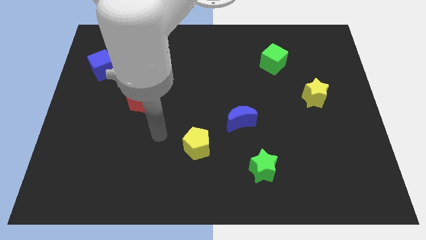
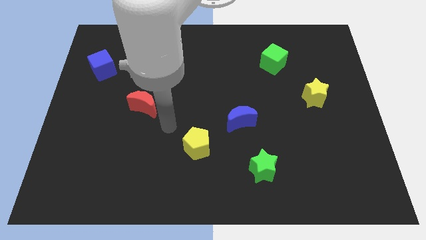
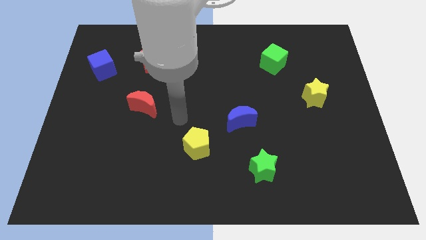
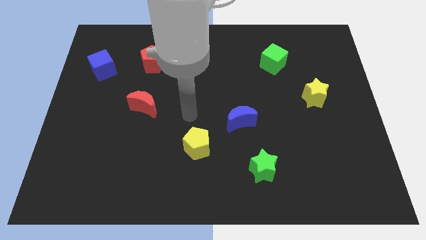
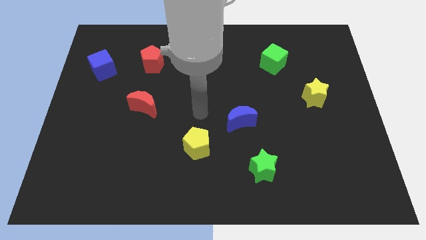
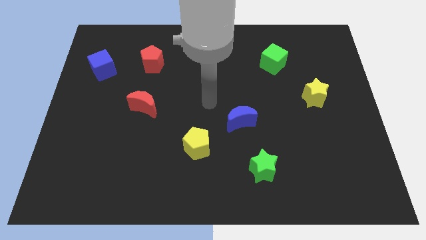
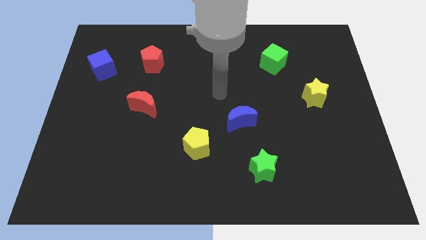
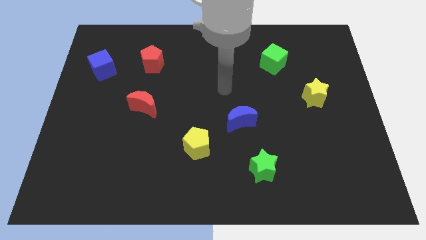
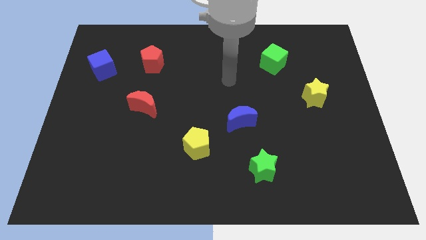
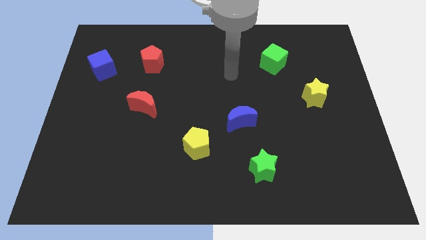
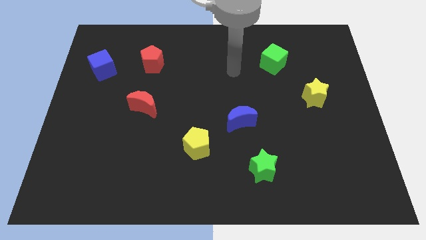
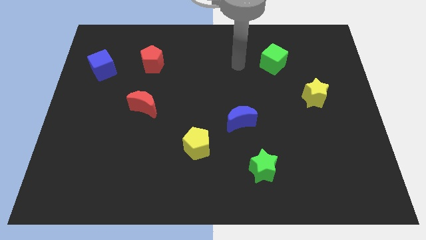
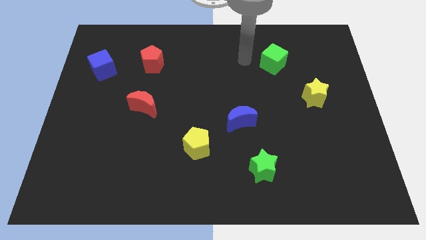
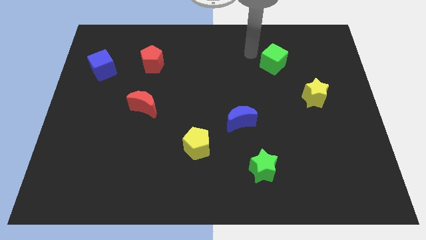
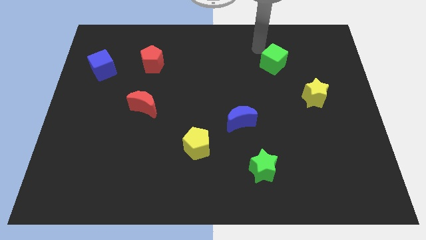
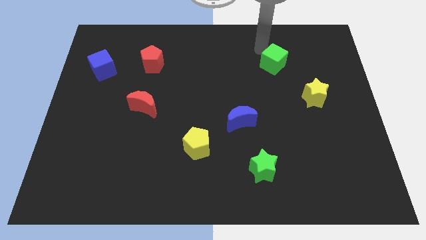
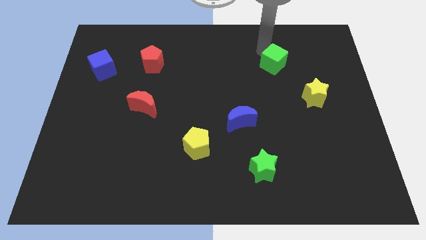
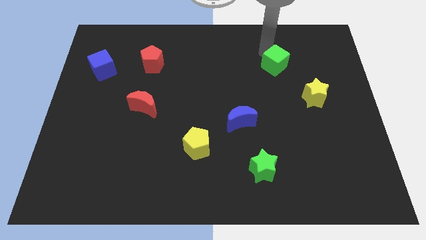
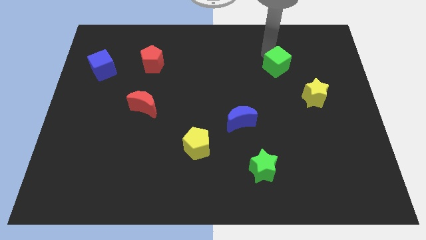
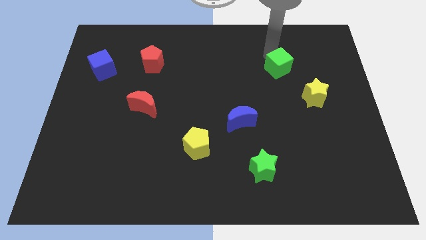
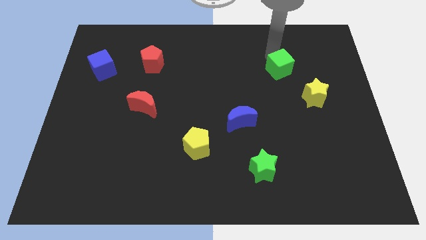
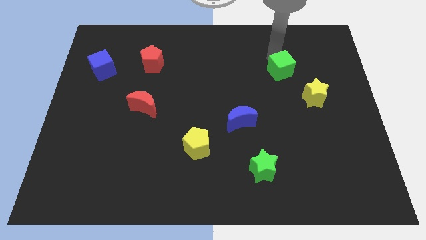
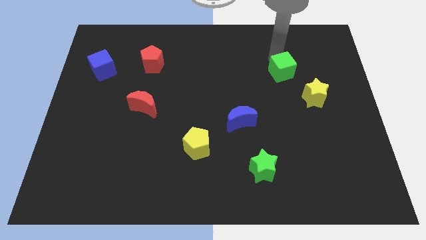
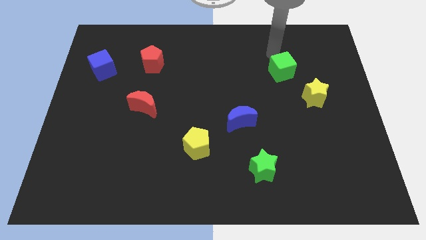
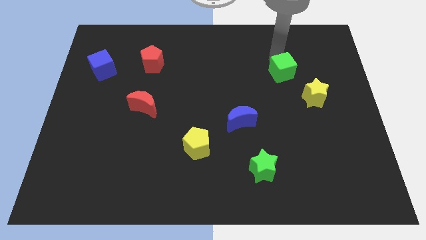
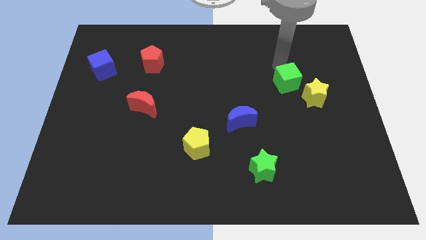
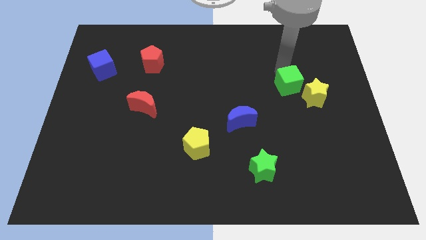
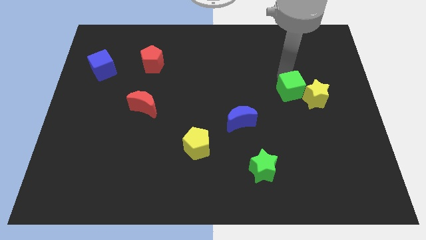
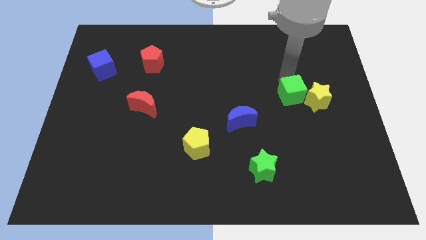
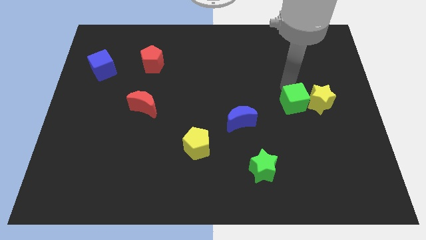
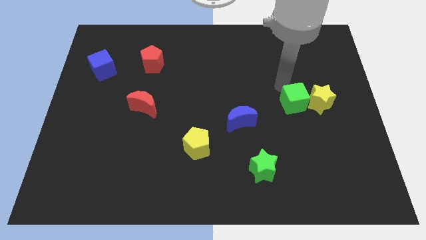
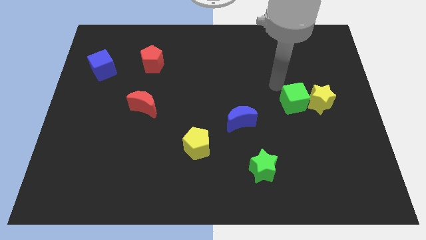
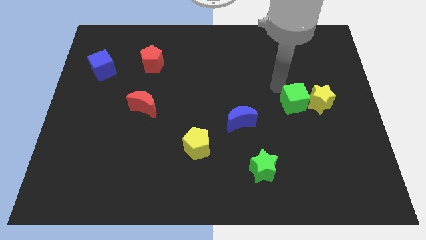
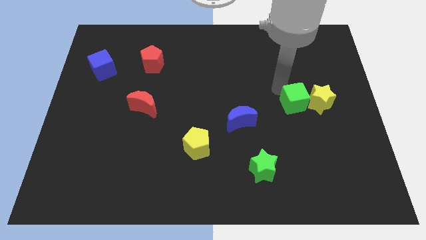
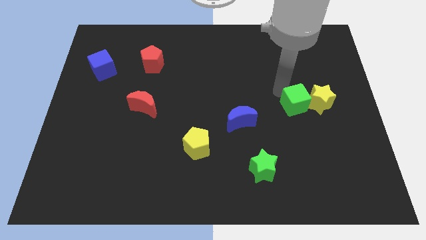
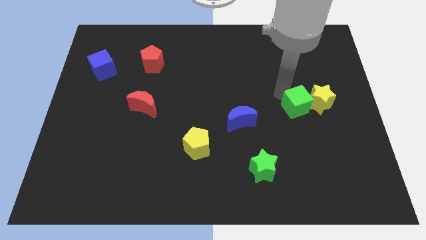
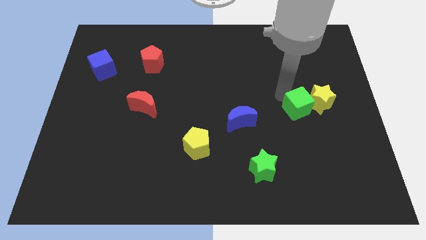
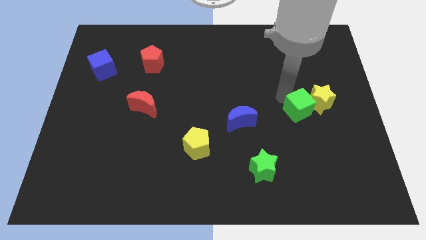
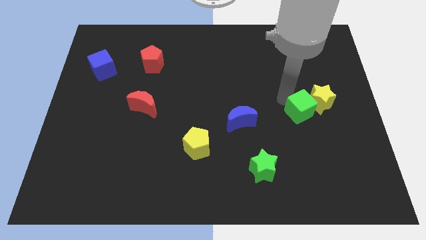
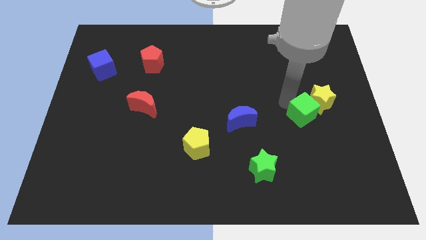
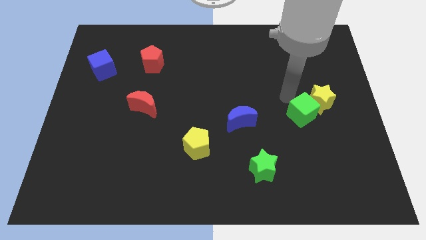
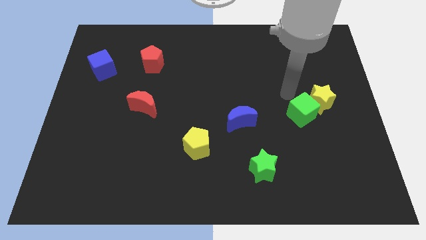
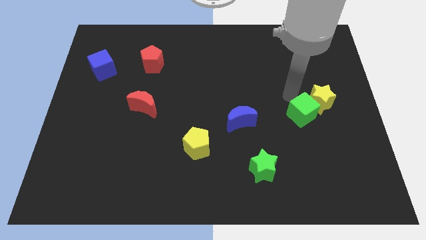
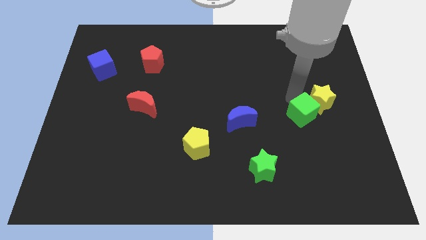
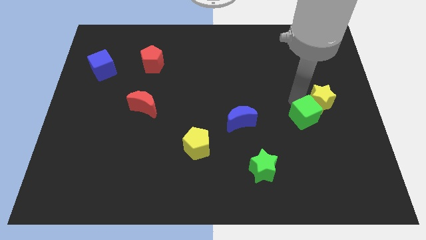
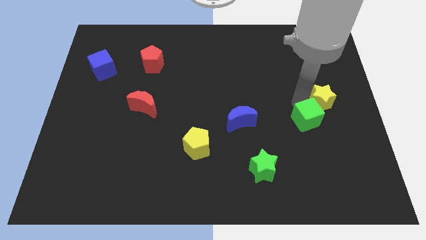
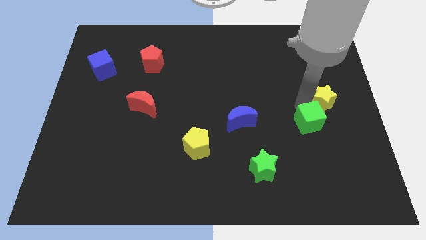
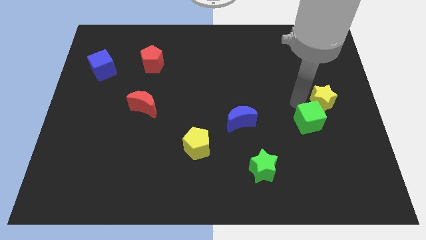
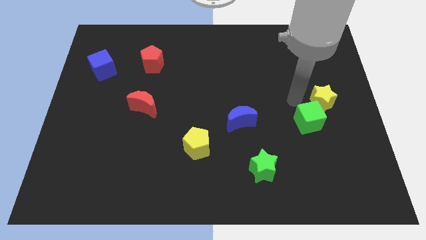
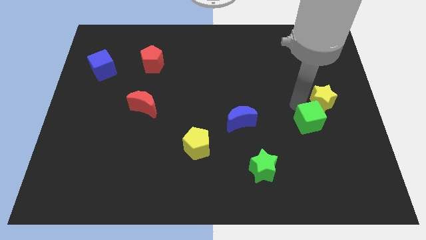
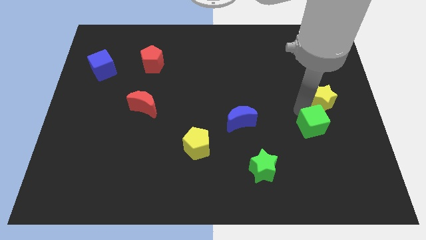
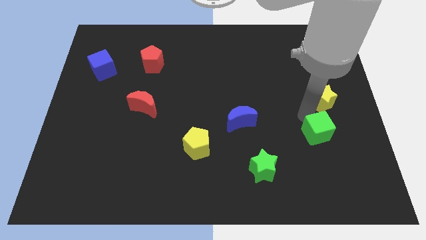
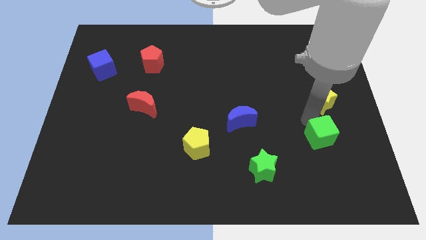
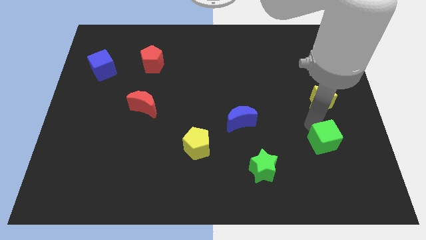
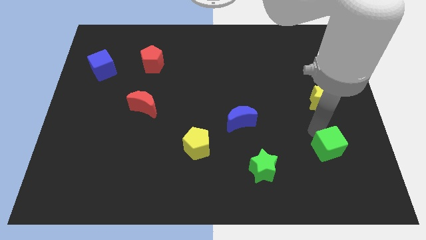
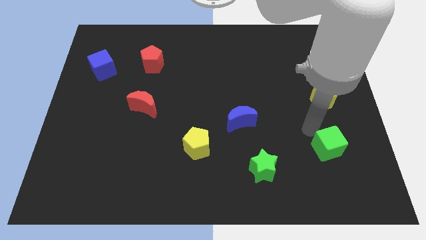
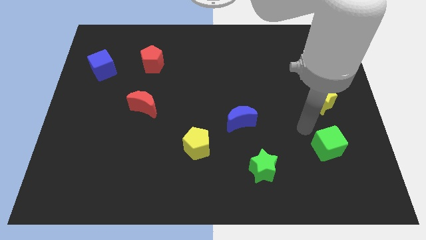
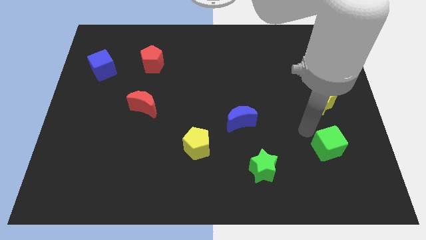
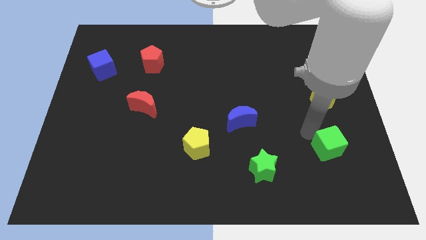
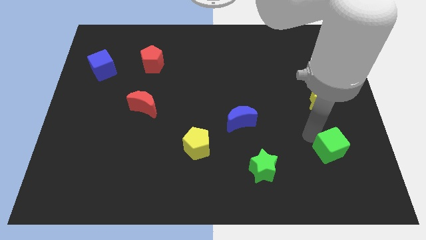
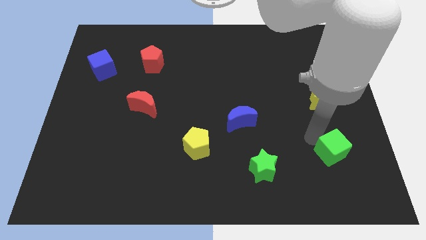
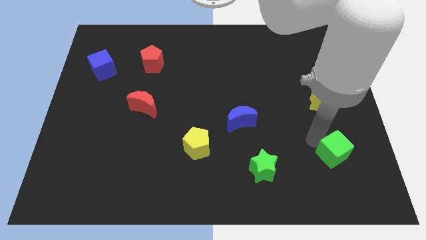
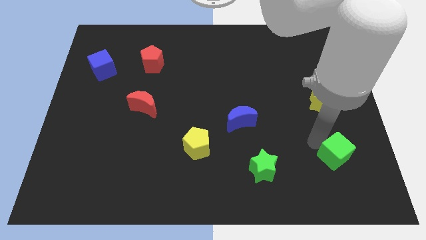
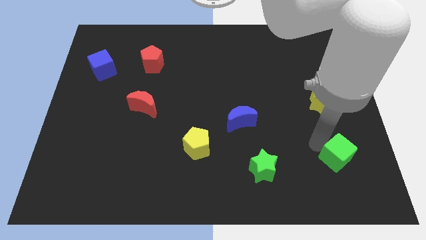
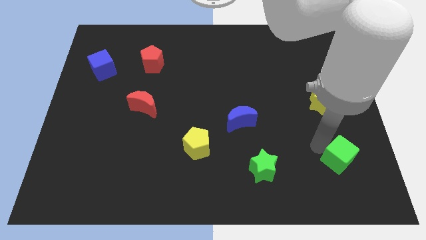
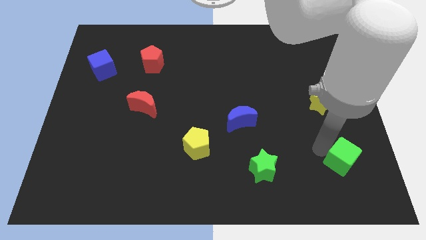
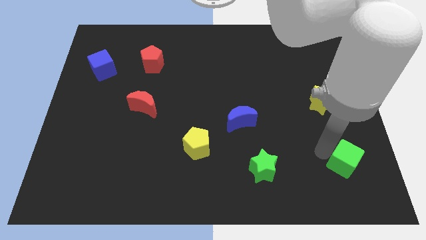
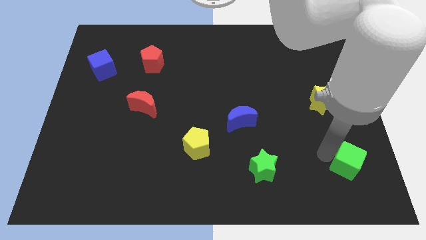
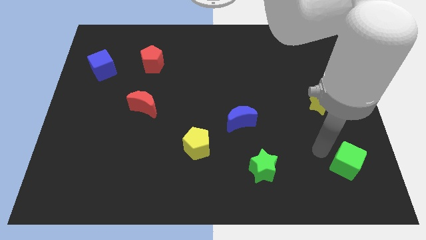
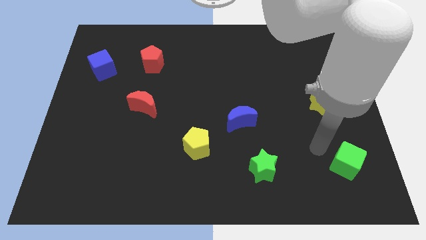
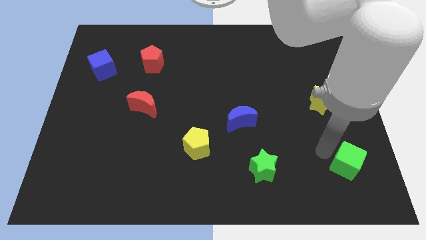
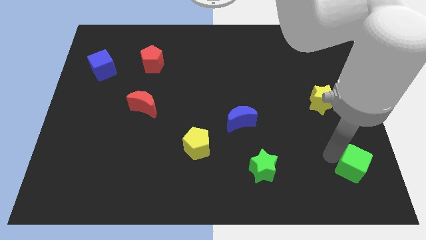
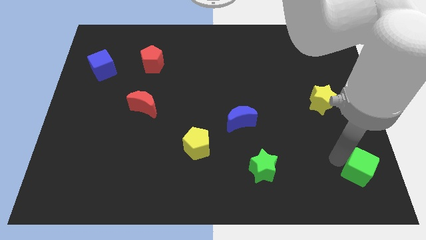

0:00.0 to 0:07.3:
put the green cube to the bottom right

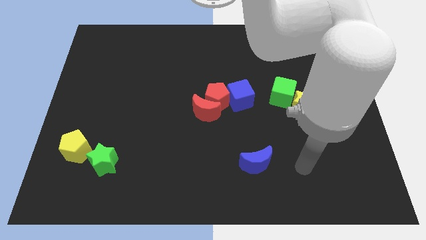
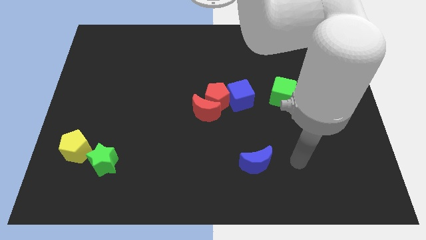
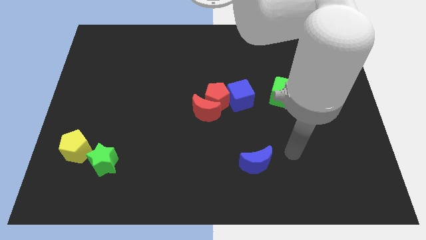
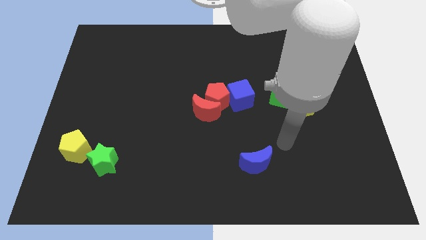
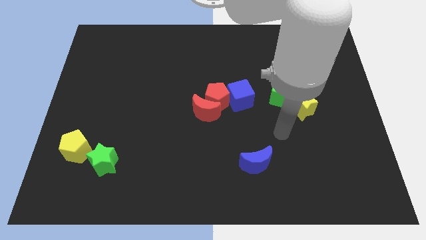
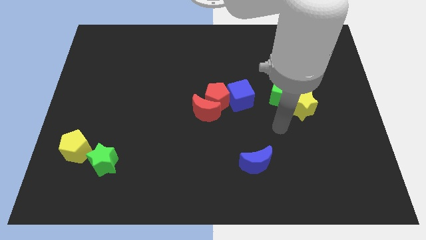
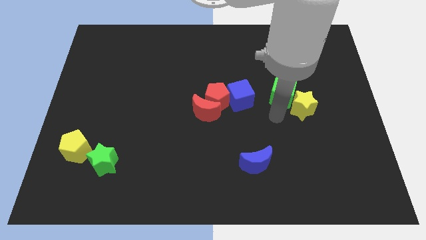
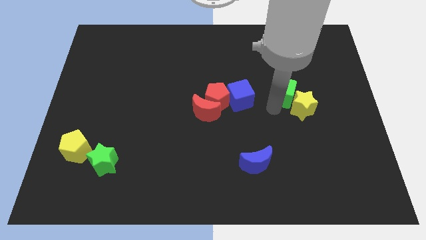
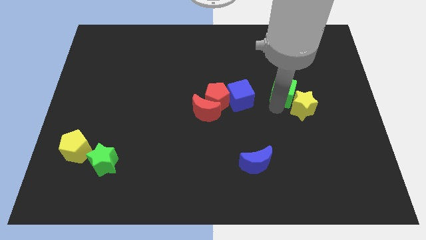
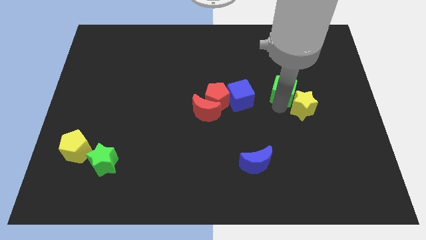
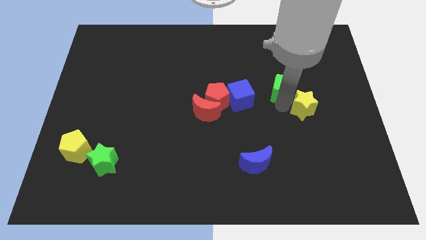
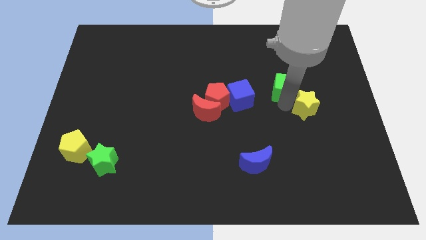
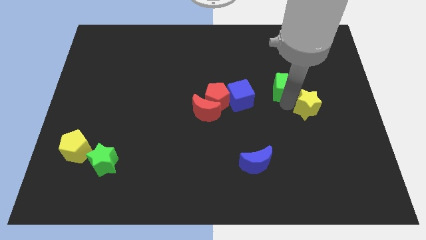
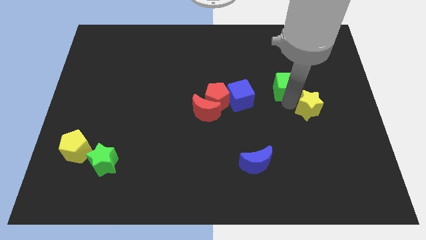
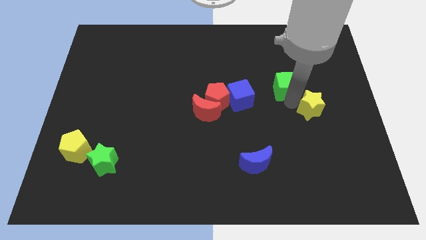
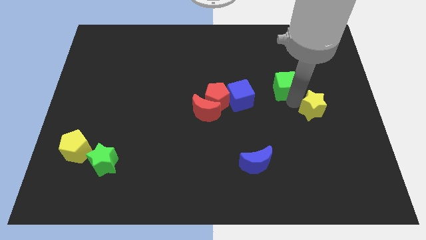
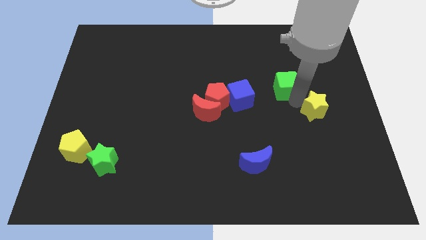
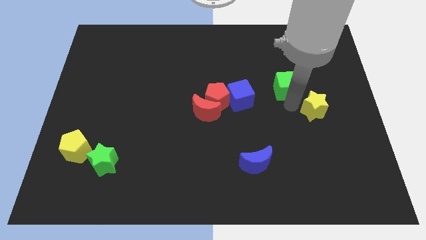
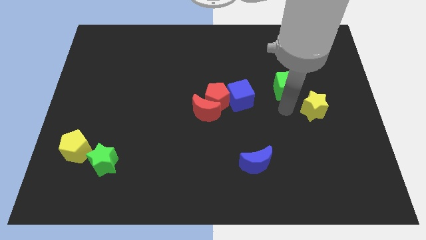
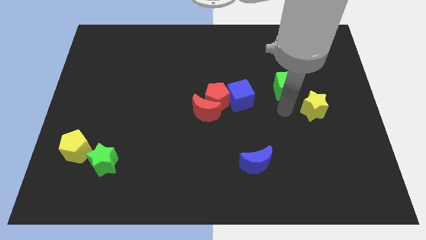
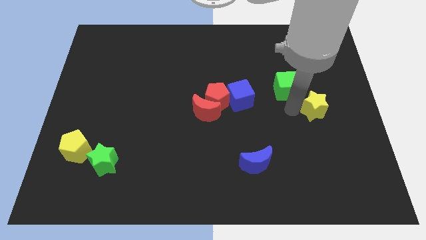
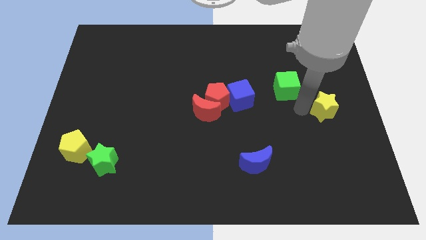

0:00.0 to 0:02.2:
move the yellow star to the right side
